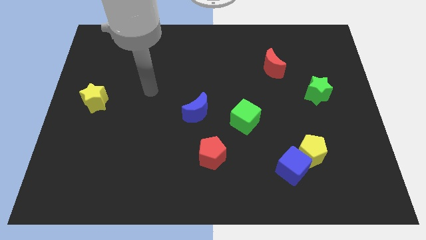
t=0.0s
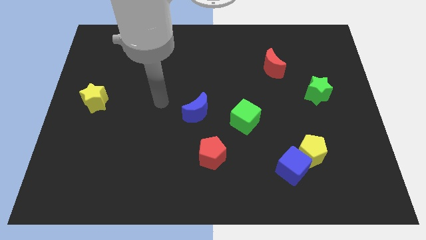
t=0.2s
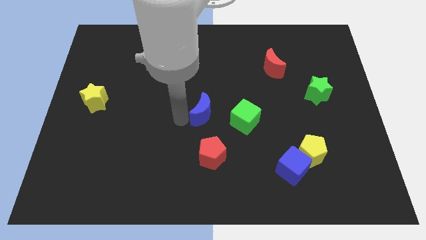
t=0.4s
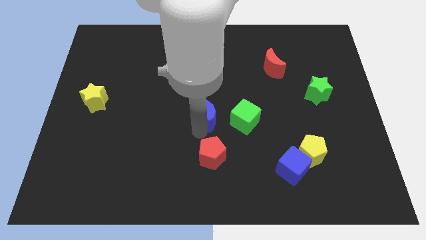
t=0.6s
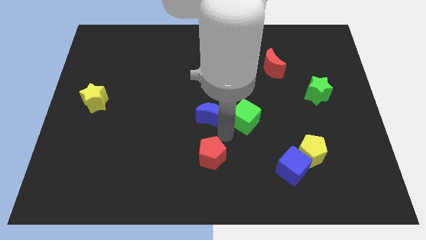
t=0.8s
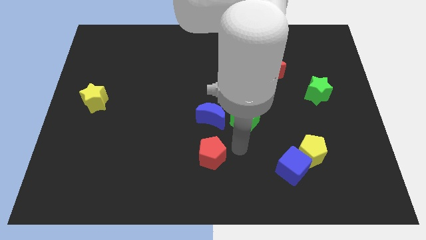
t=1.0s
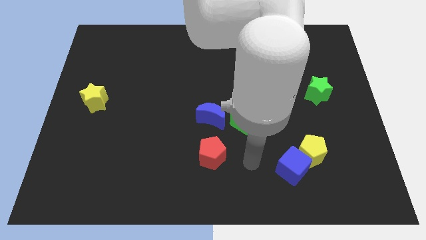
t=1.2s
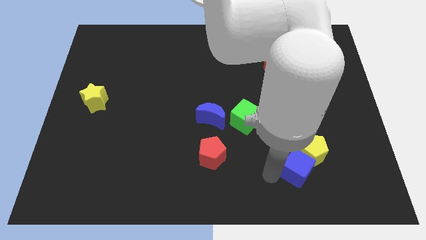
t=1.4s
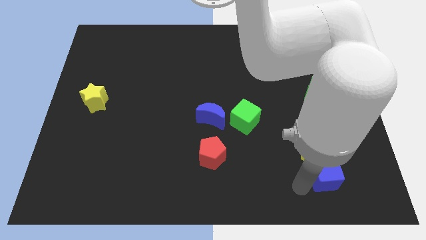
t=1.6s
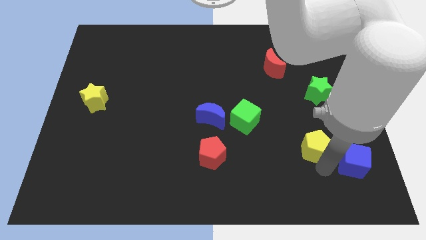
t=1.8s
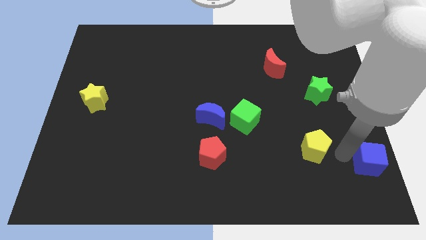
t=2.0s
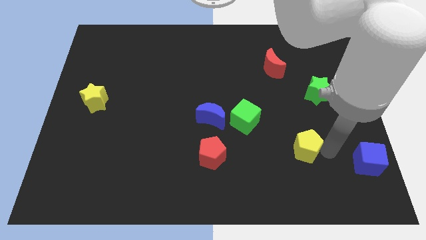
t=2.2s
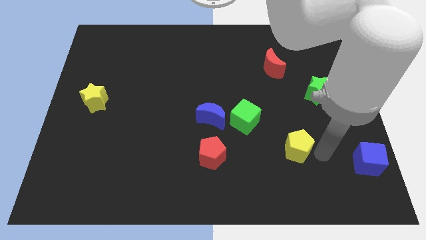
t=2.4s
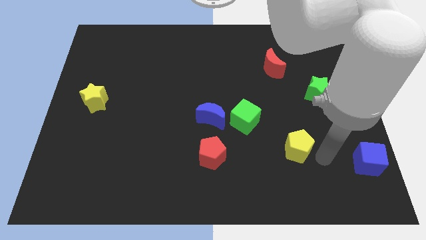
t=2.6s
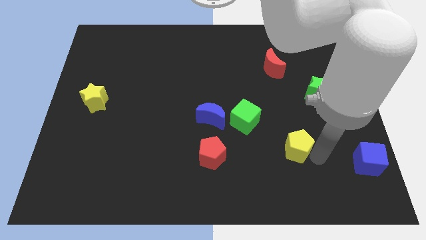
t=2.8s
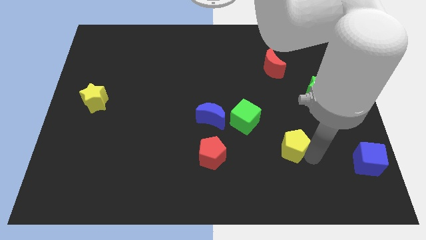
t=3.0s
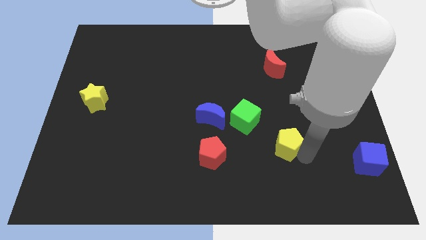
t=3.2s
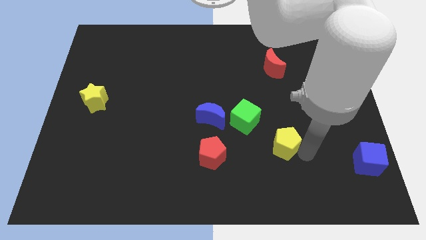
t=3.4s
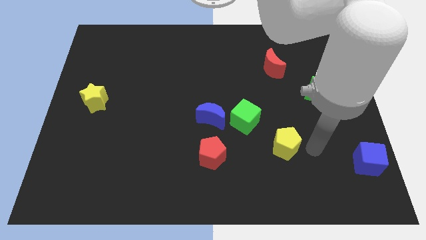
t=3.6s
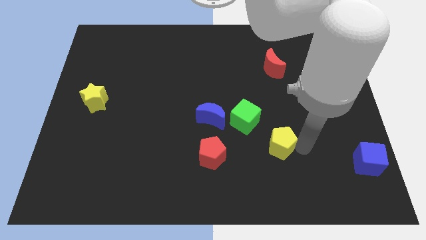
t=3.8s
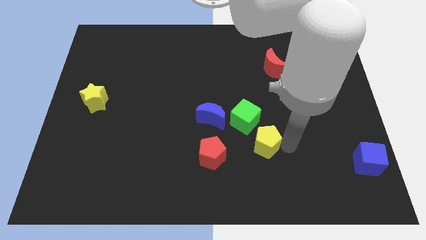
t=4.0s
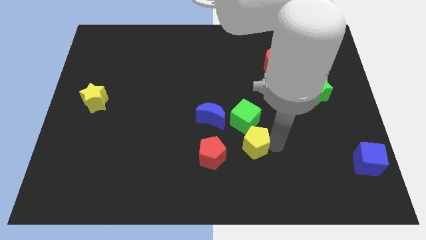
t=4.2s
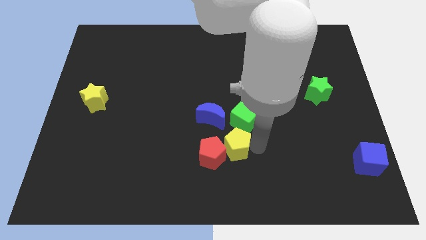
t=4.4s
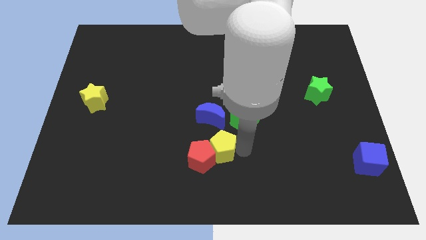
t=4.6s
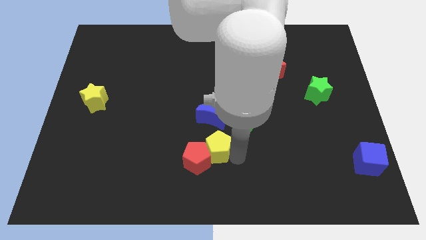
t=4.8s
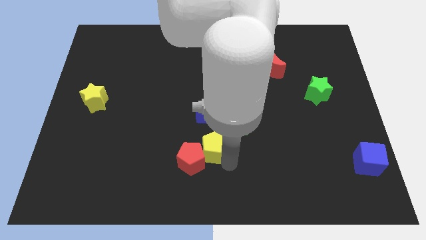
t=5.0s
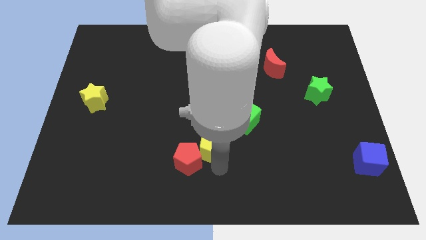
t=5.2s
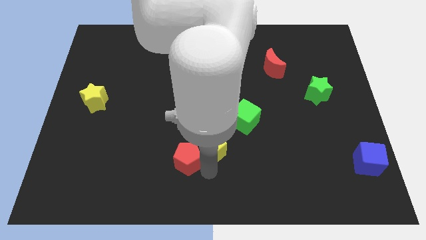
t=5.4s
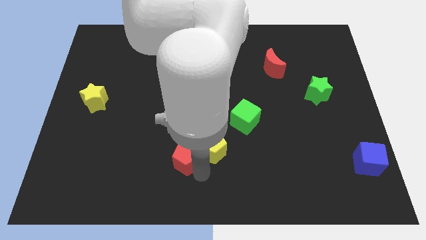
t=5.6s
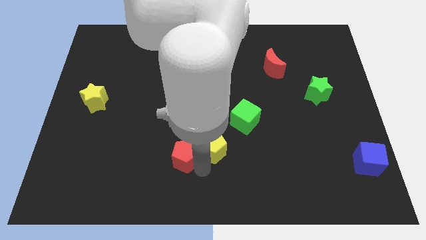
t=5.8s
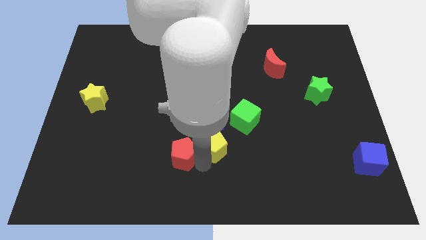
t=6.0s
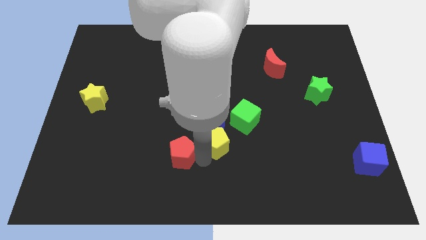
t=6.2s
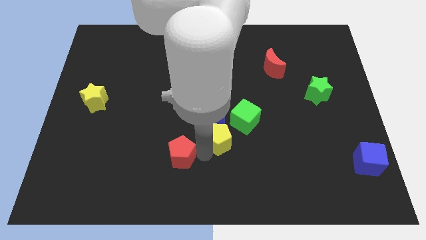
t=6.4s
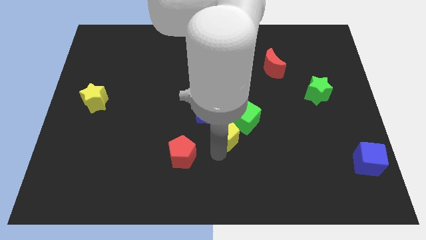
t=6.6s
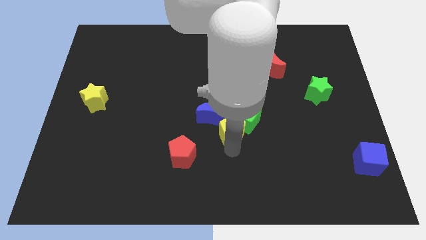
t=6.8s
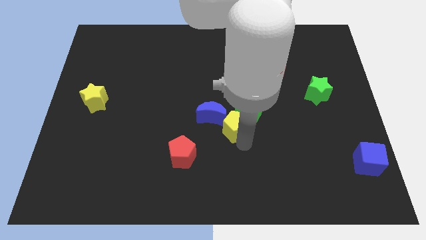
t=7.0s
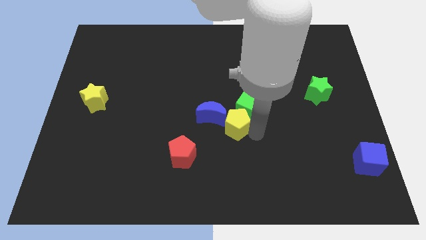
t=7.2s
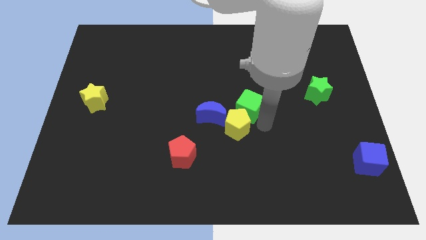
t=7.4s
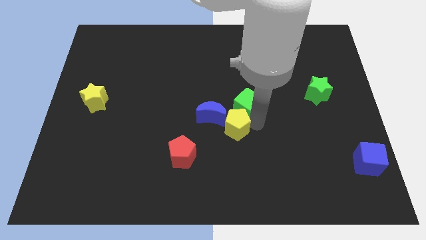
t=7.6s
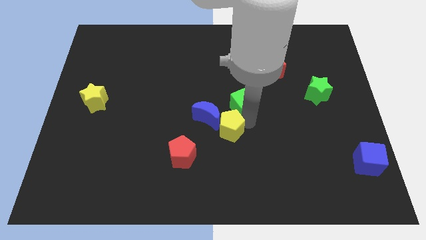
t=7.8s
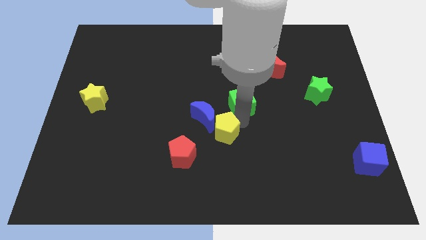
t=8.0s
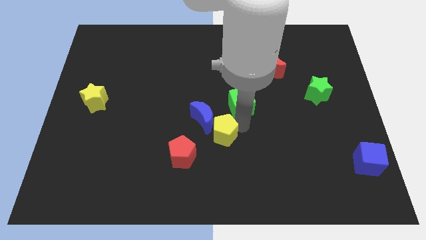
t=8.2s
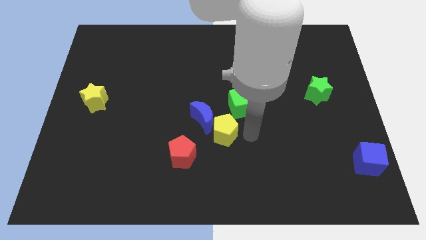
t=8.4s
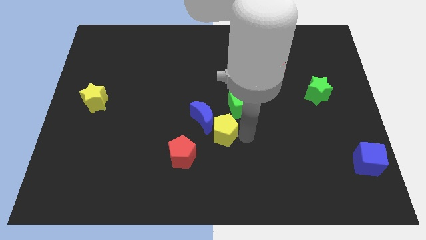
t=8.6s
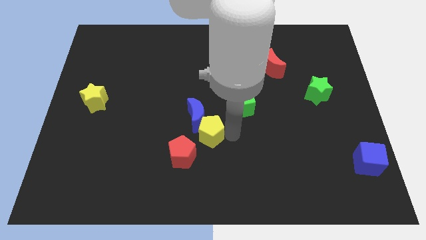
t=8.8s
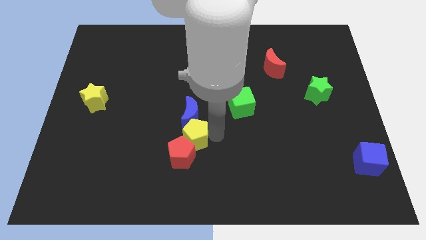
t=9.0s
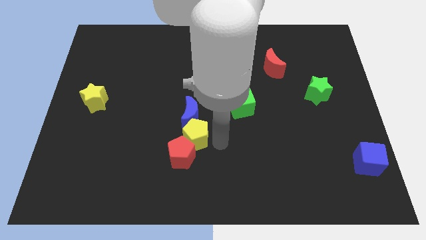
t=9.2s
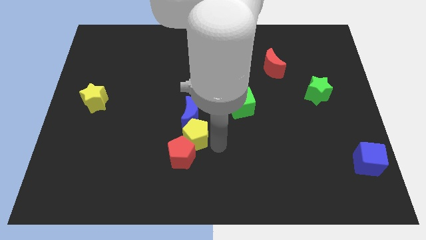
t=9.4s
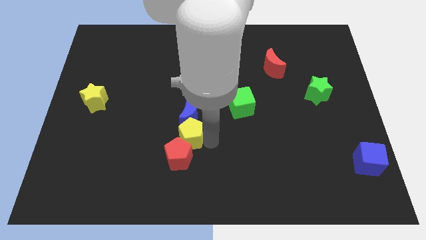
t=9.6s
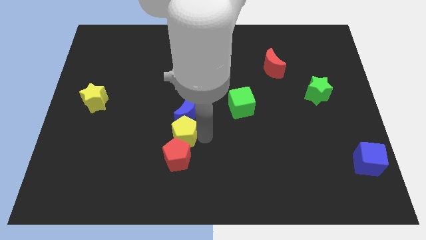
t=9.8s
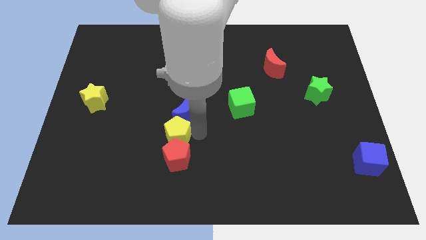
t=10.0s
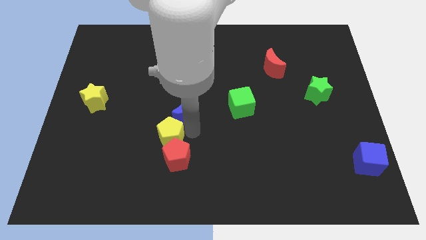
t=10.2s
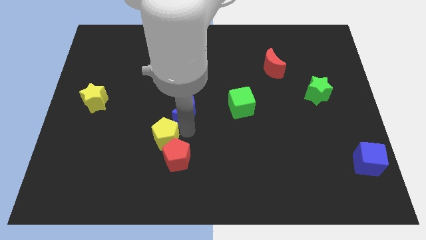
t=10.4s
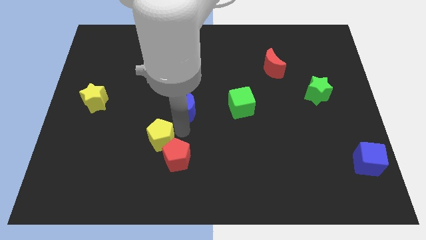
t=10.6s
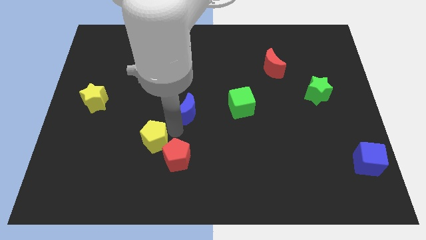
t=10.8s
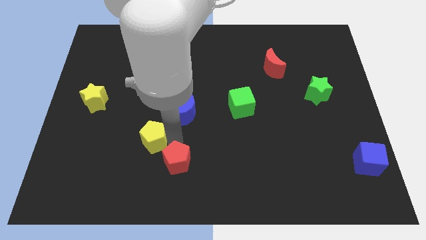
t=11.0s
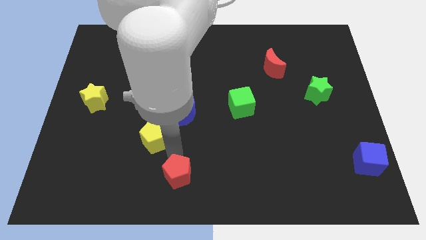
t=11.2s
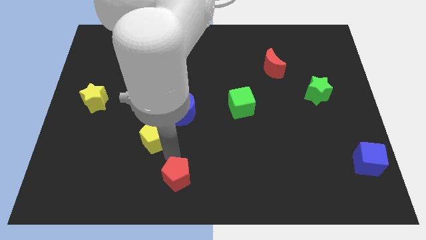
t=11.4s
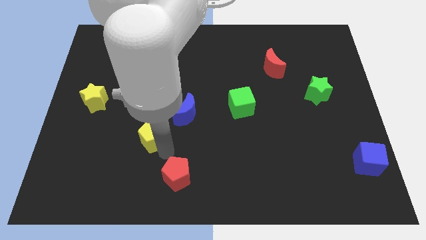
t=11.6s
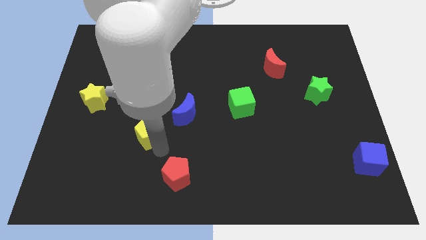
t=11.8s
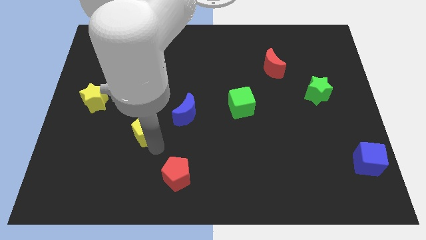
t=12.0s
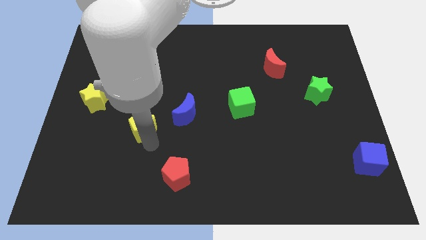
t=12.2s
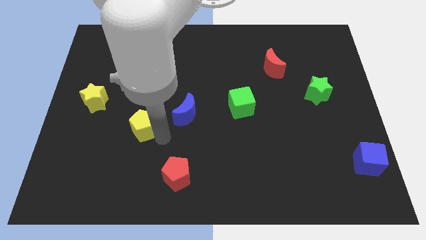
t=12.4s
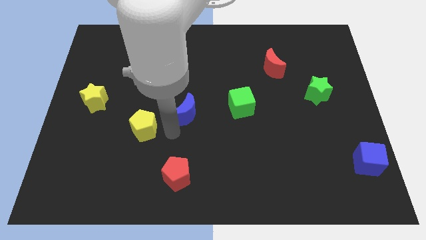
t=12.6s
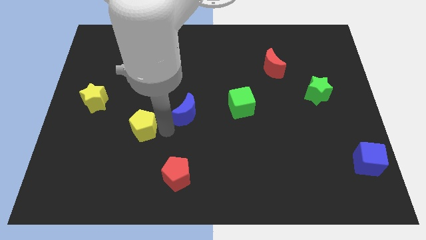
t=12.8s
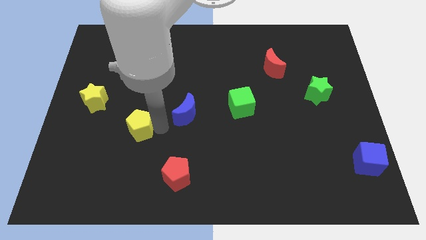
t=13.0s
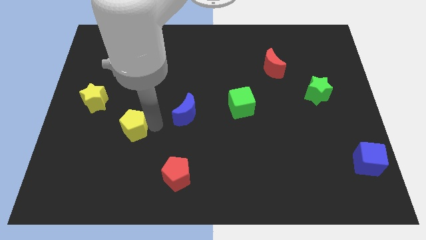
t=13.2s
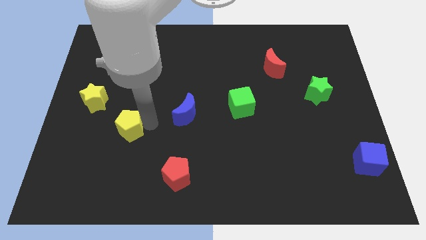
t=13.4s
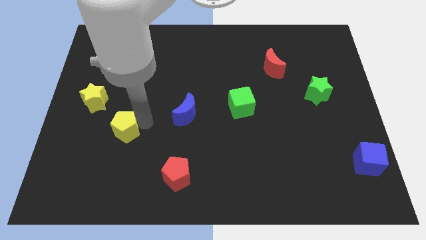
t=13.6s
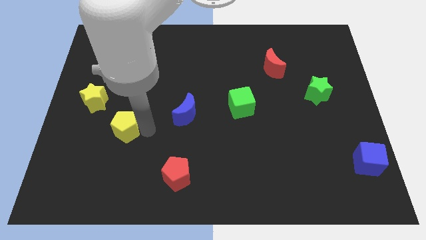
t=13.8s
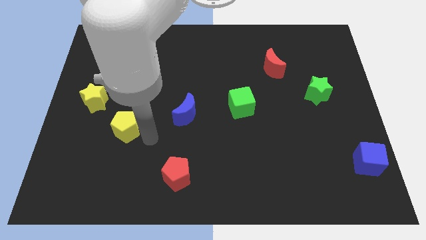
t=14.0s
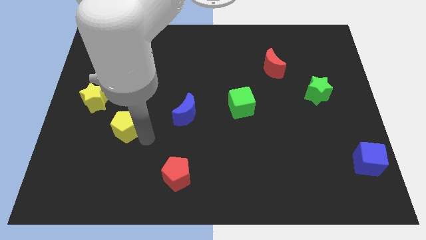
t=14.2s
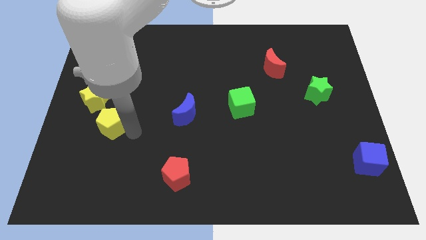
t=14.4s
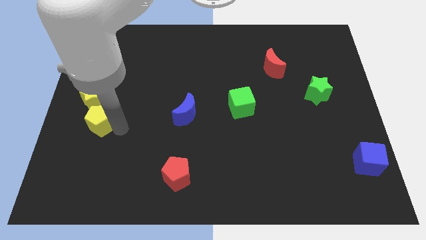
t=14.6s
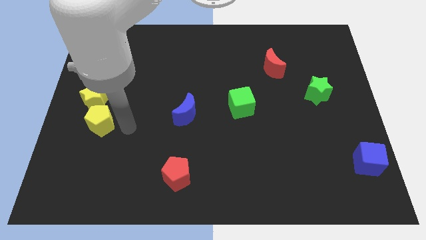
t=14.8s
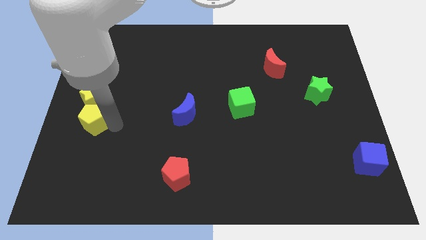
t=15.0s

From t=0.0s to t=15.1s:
slide the yellow pentagon to the center left
